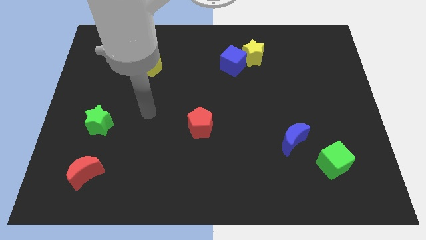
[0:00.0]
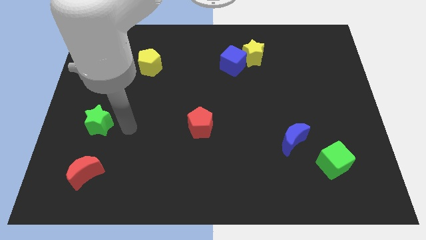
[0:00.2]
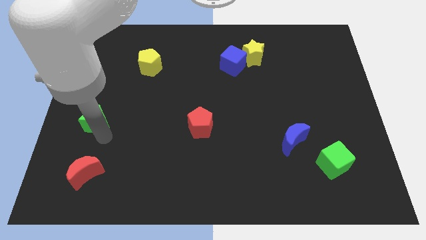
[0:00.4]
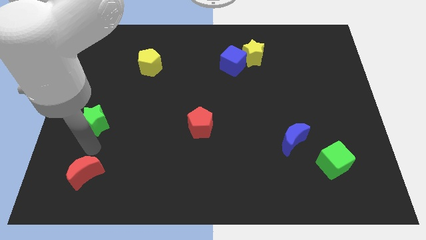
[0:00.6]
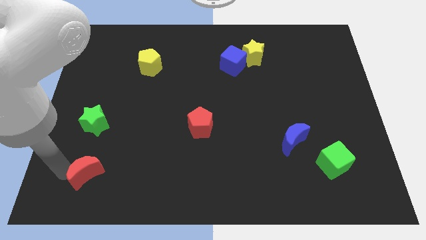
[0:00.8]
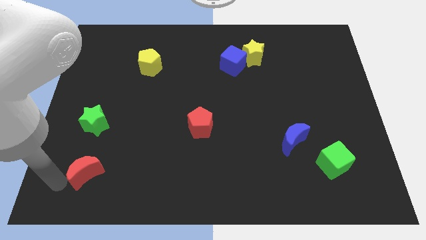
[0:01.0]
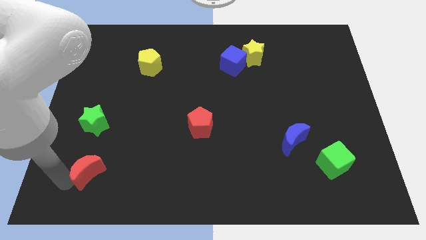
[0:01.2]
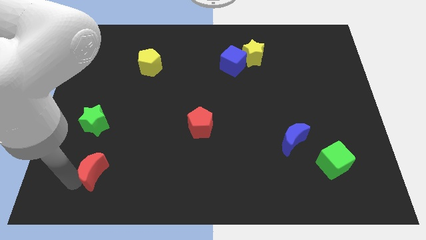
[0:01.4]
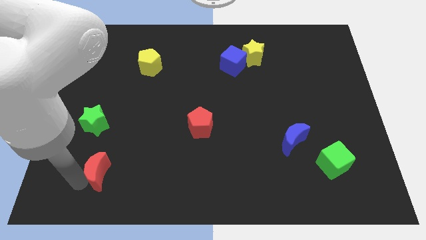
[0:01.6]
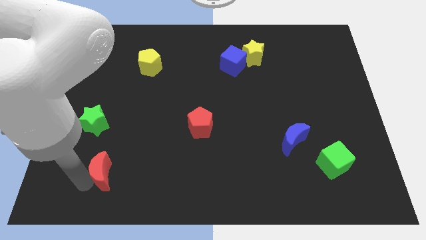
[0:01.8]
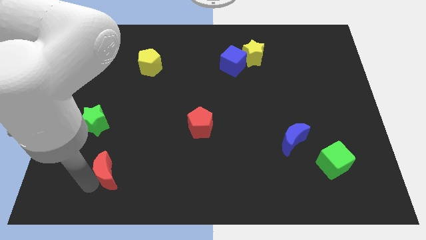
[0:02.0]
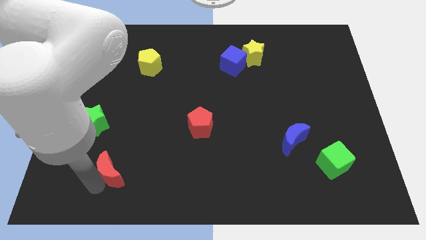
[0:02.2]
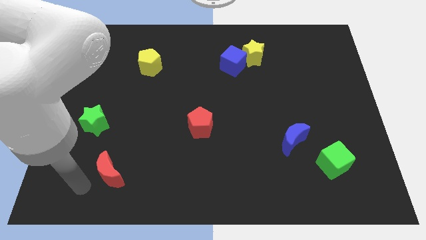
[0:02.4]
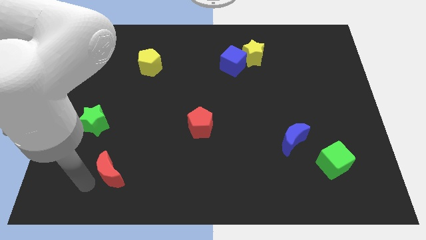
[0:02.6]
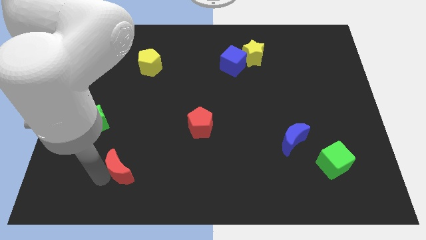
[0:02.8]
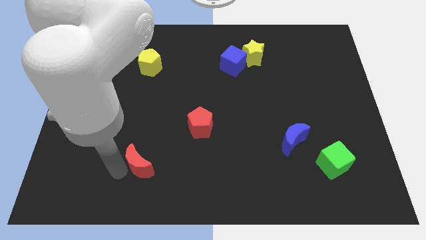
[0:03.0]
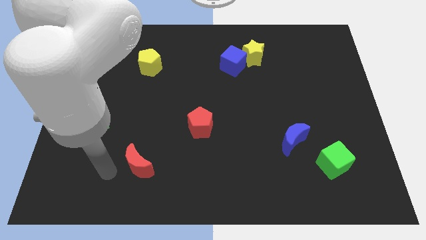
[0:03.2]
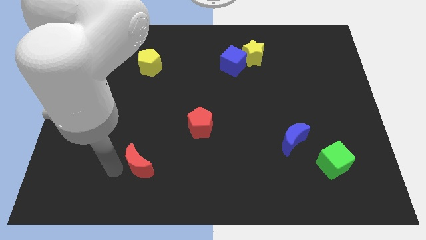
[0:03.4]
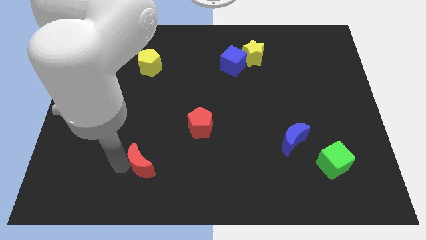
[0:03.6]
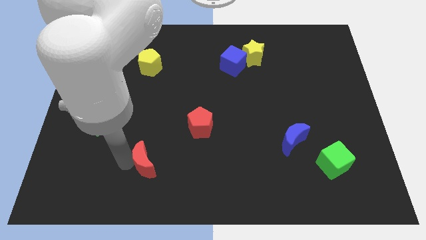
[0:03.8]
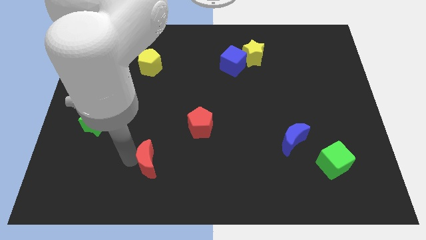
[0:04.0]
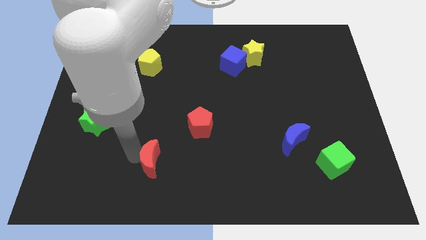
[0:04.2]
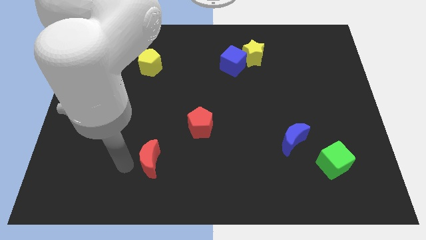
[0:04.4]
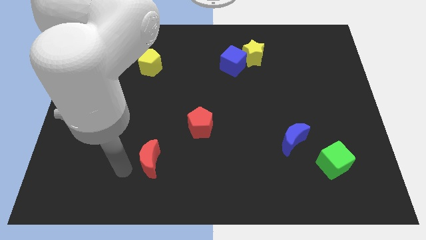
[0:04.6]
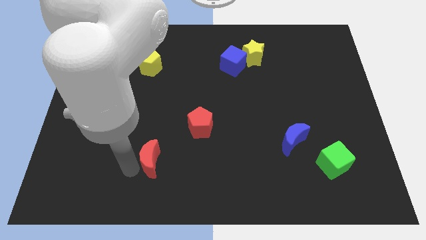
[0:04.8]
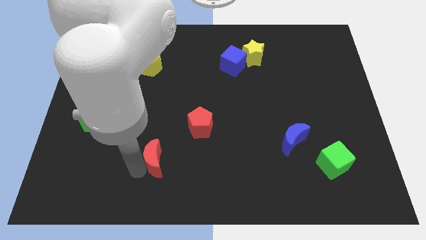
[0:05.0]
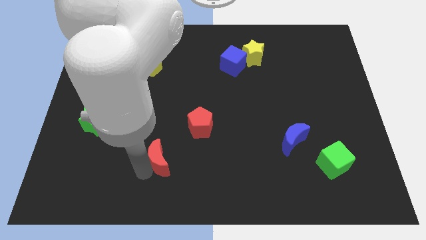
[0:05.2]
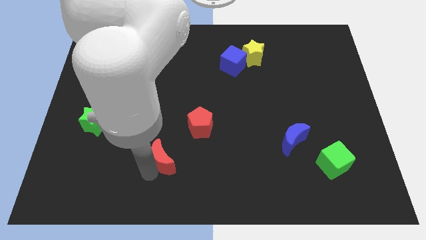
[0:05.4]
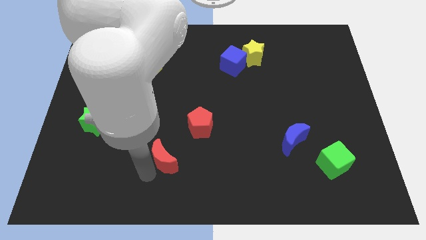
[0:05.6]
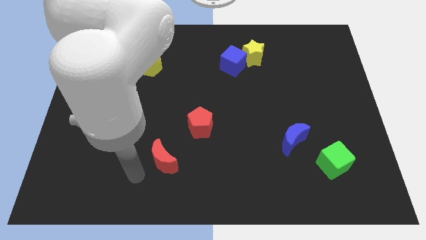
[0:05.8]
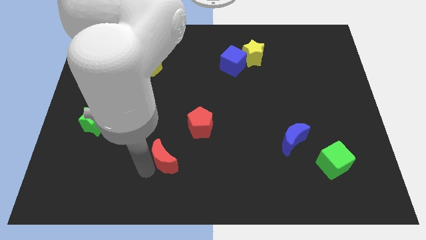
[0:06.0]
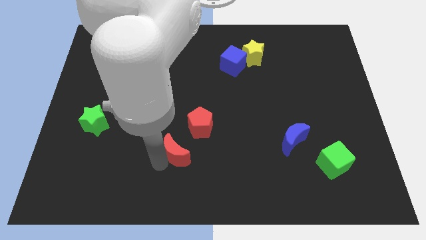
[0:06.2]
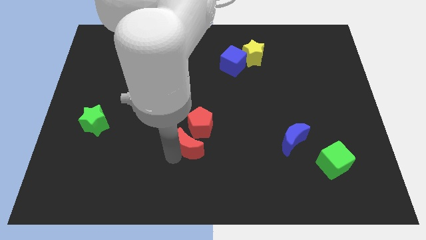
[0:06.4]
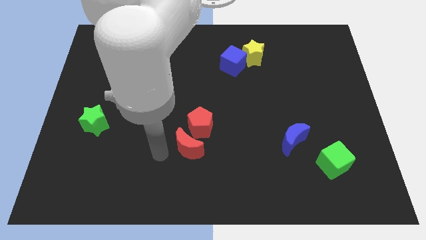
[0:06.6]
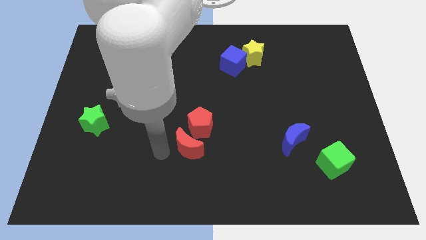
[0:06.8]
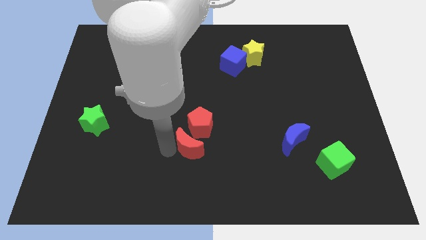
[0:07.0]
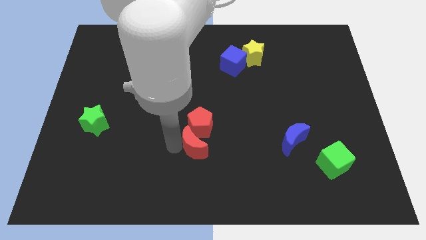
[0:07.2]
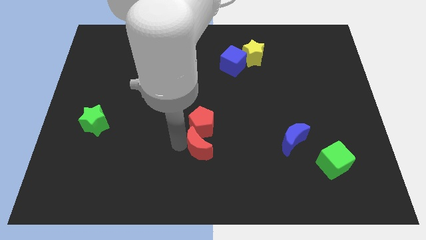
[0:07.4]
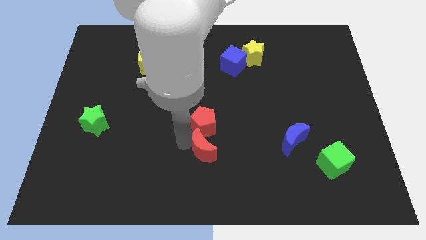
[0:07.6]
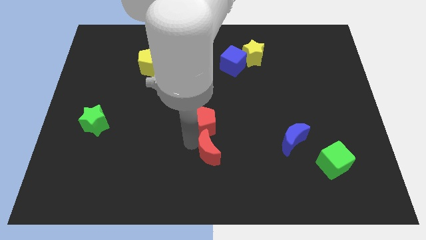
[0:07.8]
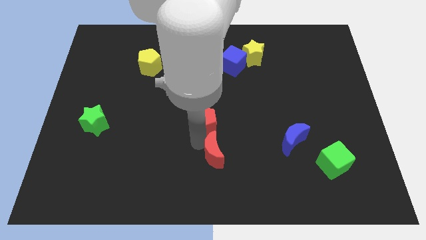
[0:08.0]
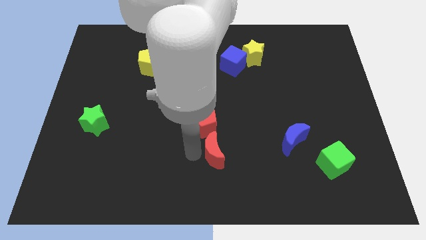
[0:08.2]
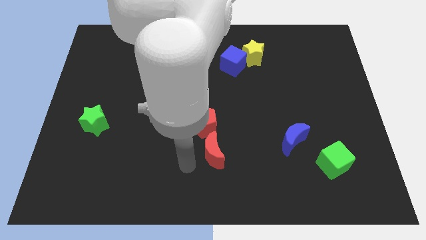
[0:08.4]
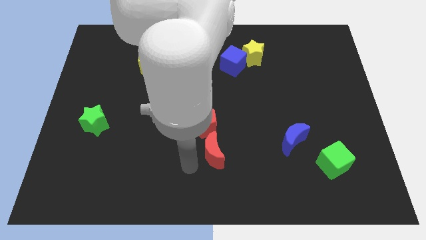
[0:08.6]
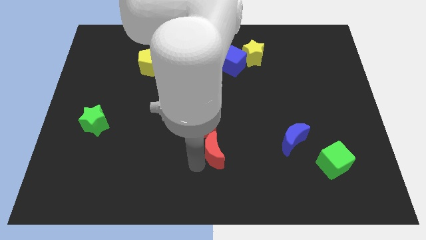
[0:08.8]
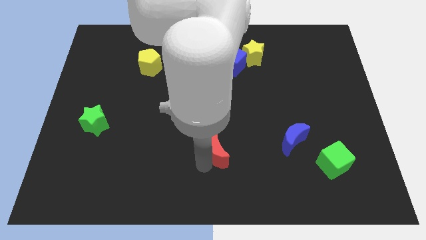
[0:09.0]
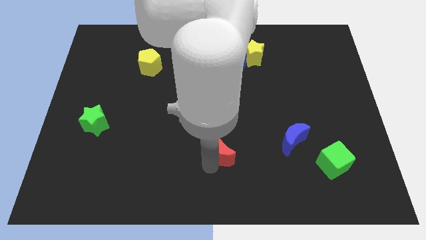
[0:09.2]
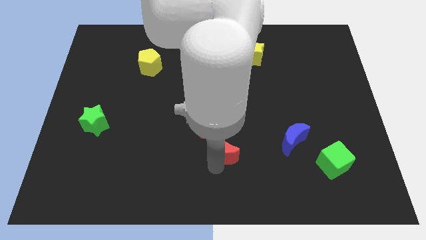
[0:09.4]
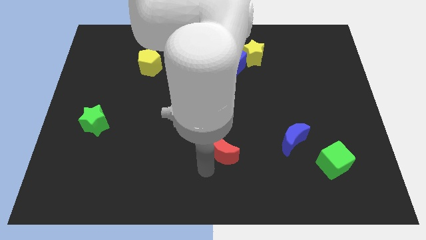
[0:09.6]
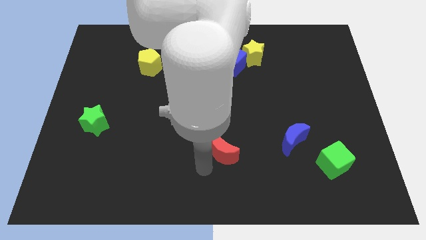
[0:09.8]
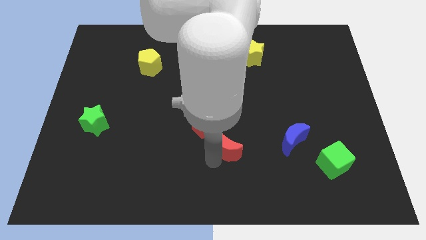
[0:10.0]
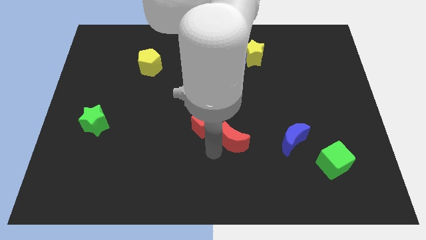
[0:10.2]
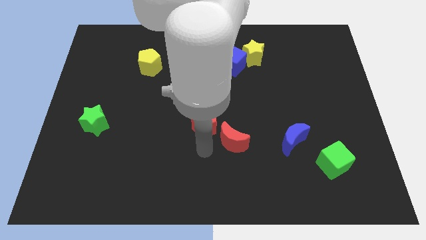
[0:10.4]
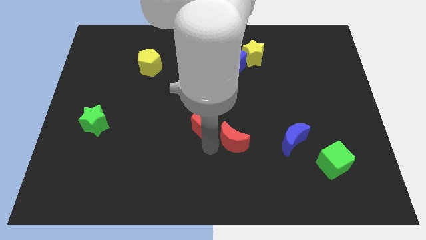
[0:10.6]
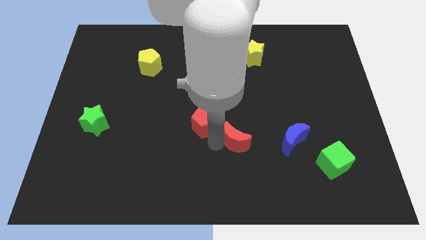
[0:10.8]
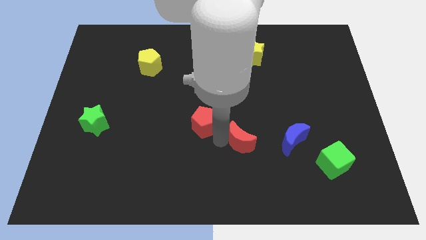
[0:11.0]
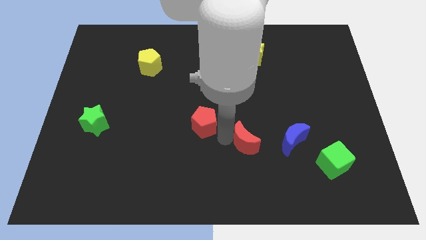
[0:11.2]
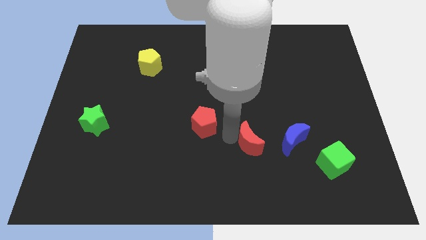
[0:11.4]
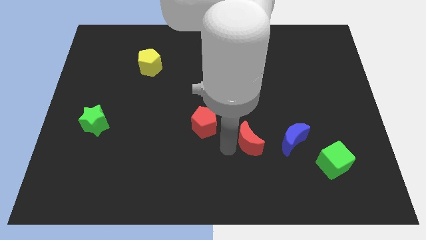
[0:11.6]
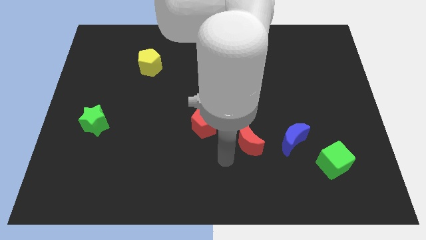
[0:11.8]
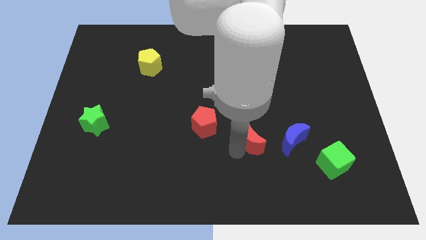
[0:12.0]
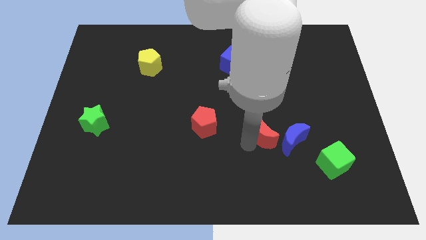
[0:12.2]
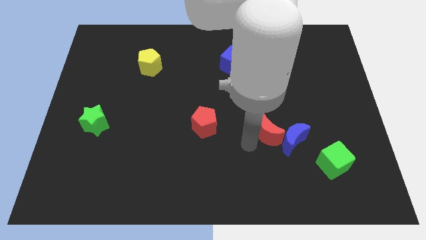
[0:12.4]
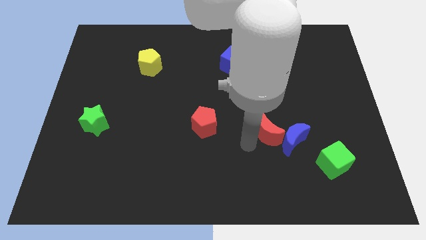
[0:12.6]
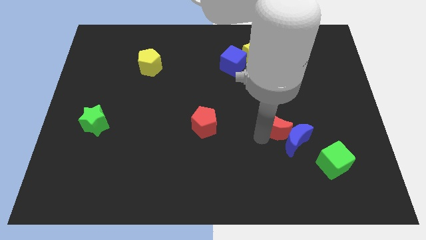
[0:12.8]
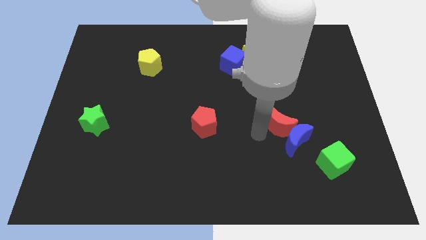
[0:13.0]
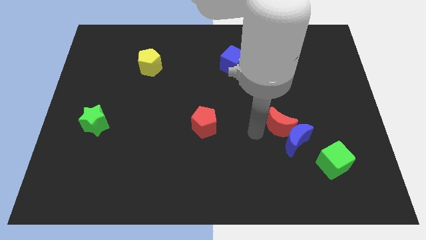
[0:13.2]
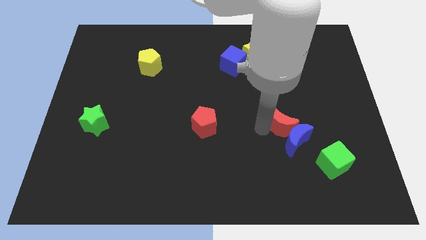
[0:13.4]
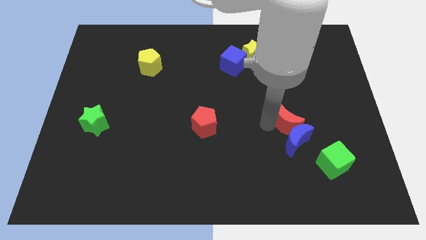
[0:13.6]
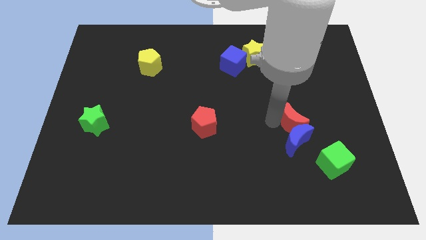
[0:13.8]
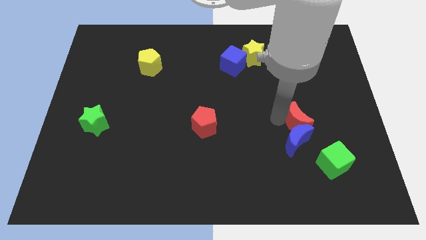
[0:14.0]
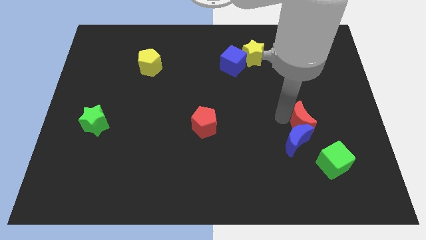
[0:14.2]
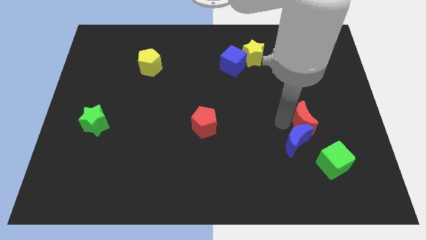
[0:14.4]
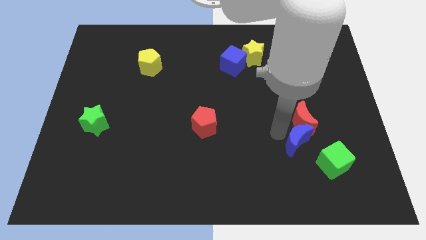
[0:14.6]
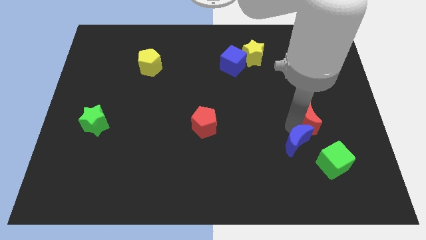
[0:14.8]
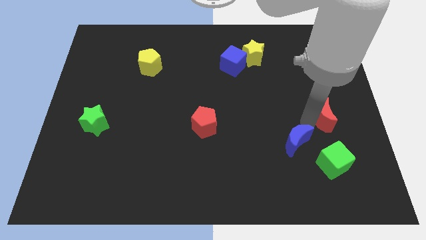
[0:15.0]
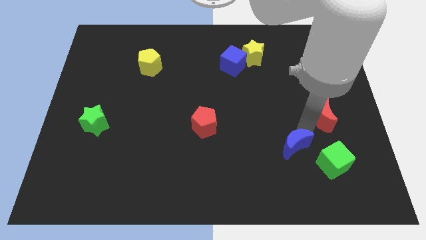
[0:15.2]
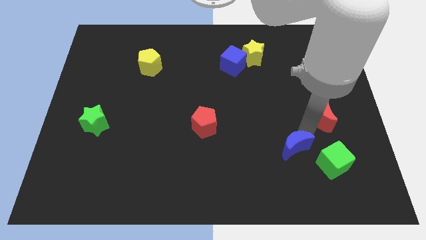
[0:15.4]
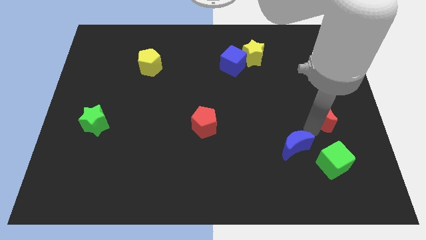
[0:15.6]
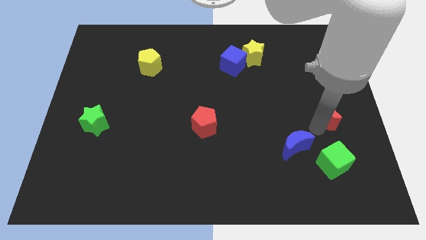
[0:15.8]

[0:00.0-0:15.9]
move the red moon to the right side of the board
